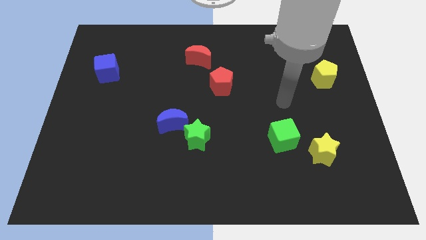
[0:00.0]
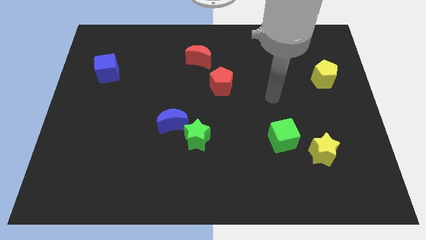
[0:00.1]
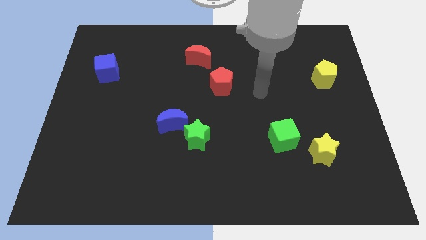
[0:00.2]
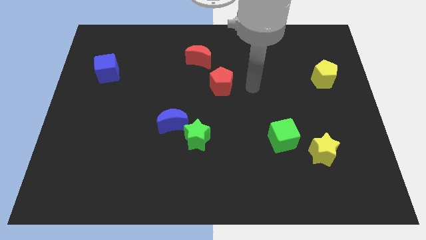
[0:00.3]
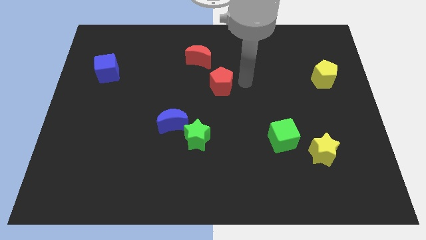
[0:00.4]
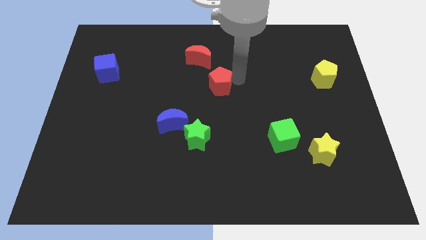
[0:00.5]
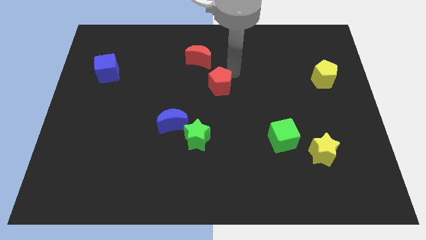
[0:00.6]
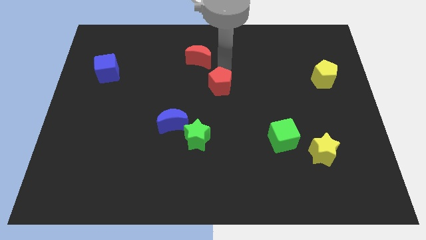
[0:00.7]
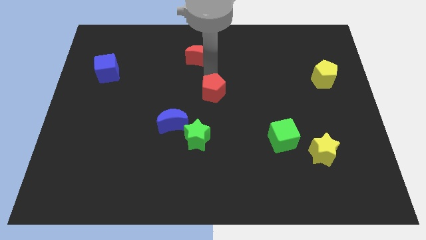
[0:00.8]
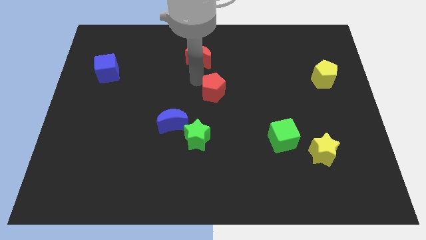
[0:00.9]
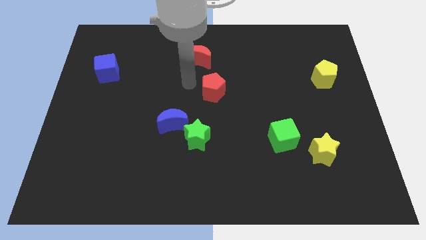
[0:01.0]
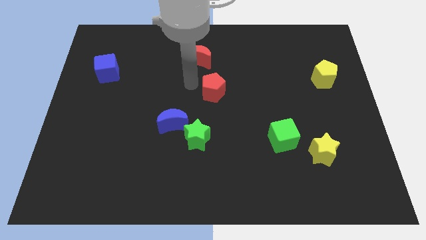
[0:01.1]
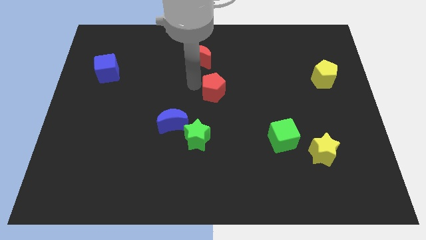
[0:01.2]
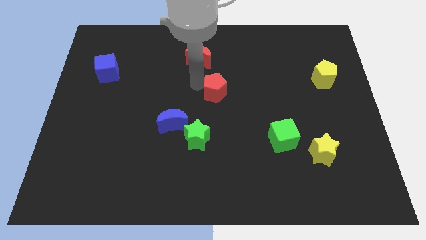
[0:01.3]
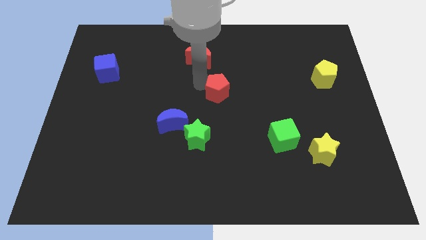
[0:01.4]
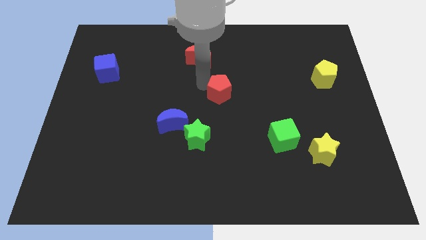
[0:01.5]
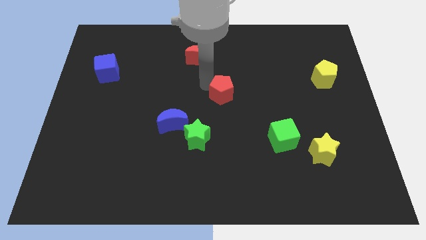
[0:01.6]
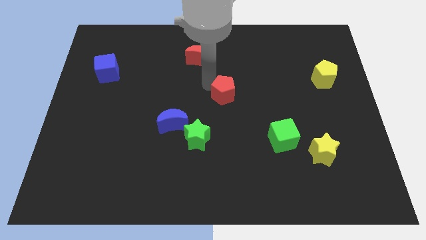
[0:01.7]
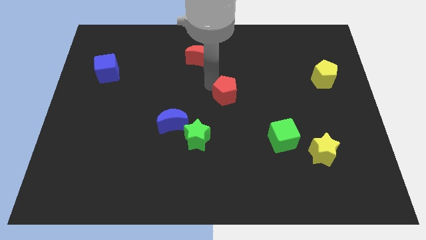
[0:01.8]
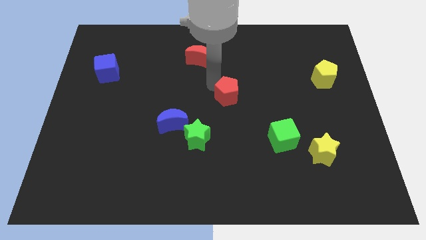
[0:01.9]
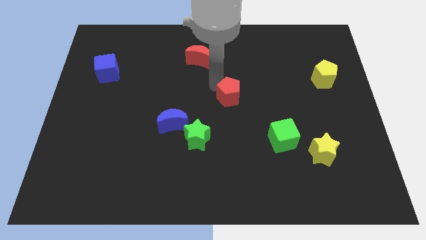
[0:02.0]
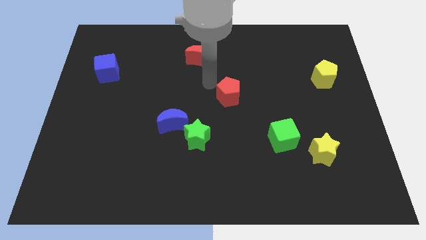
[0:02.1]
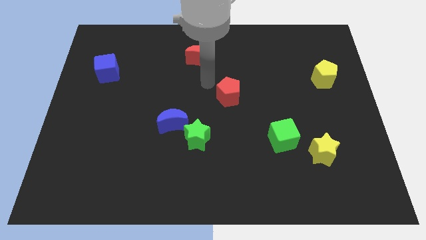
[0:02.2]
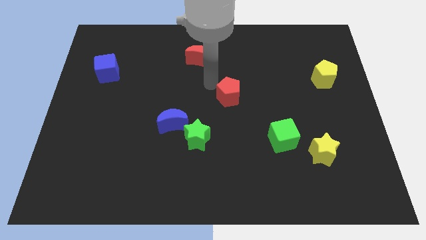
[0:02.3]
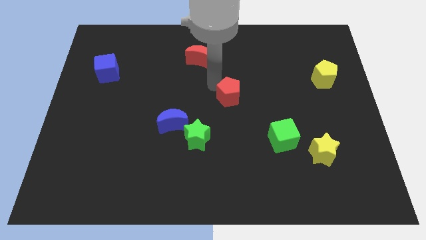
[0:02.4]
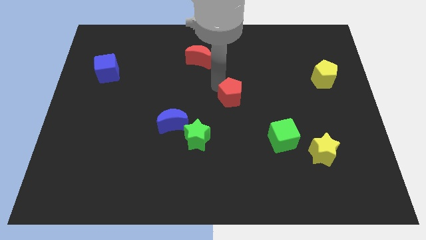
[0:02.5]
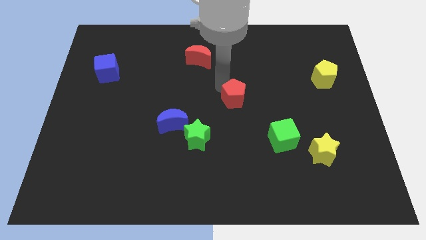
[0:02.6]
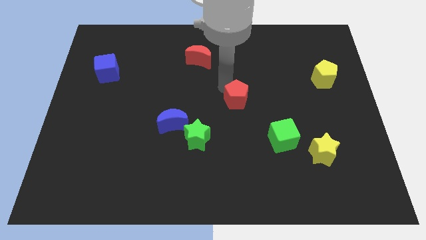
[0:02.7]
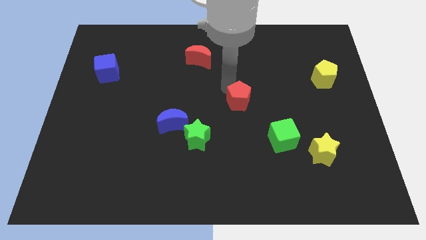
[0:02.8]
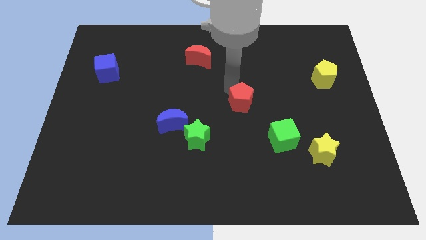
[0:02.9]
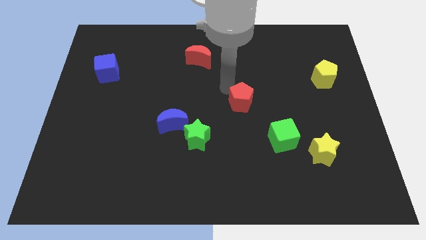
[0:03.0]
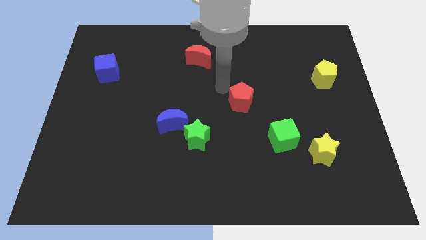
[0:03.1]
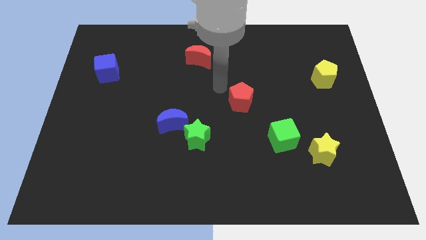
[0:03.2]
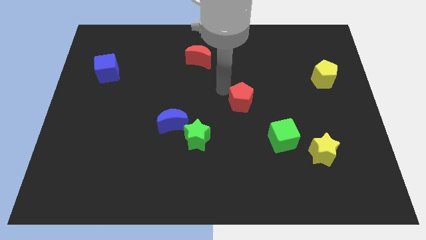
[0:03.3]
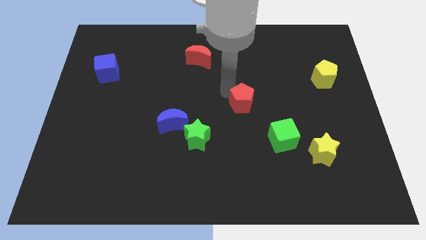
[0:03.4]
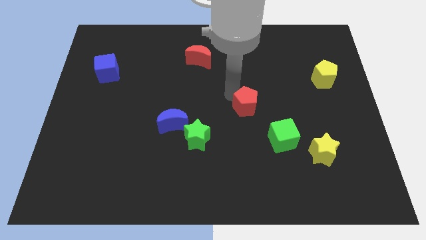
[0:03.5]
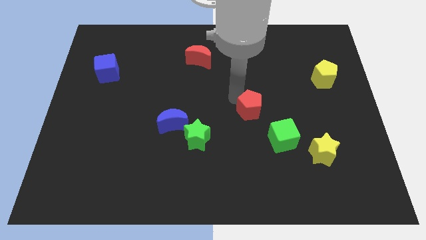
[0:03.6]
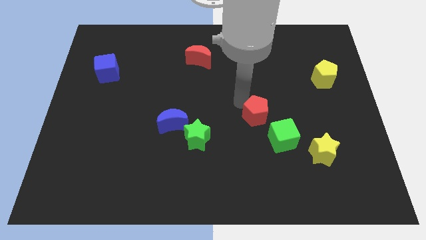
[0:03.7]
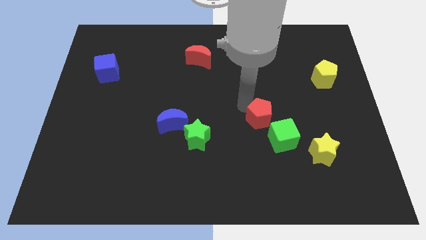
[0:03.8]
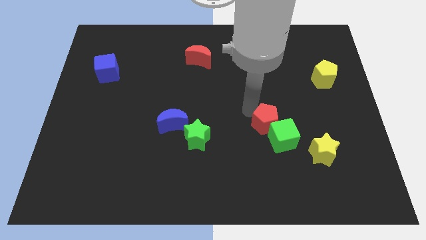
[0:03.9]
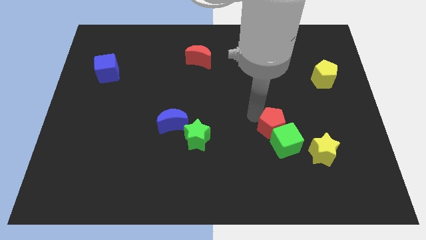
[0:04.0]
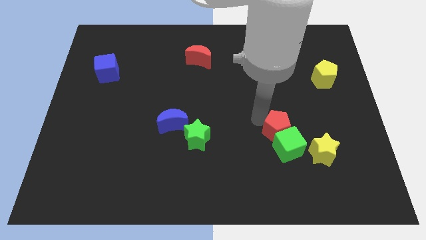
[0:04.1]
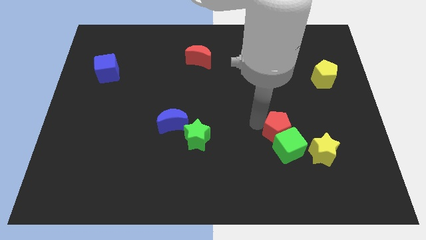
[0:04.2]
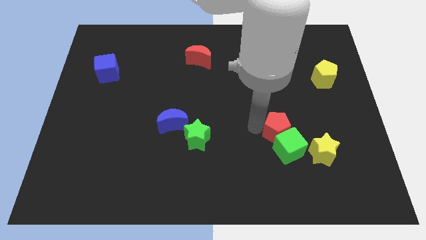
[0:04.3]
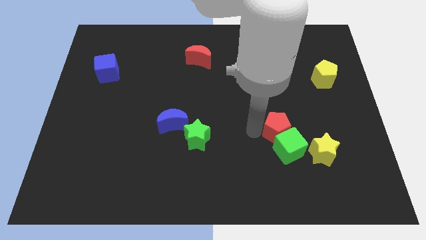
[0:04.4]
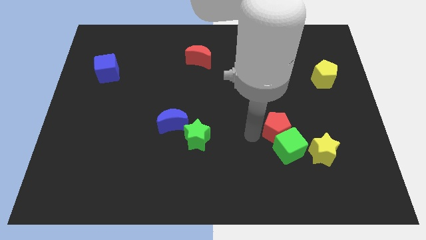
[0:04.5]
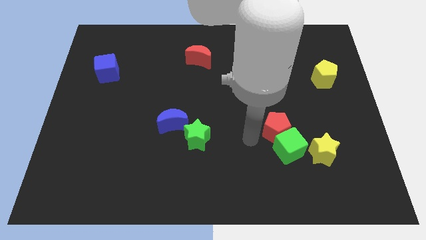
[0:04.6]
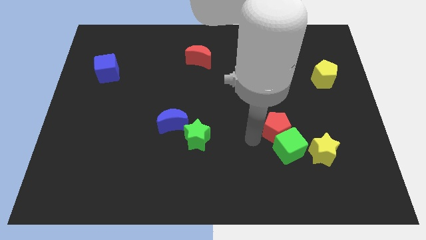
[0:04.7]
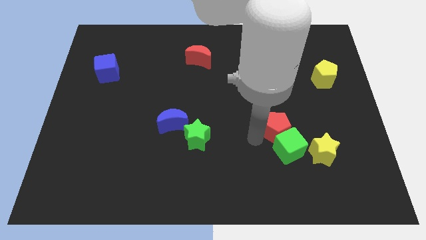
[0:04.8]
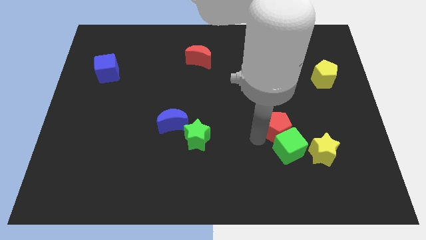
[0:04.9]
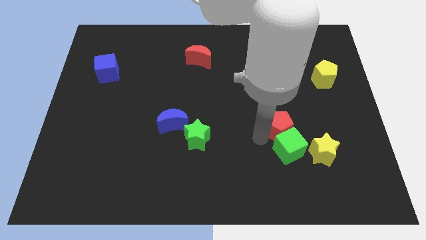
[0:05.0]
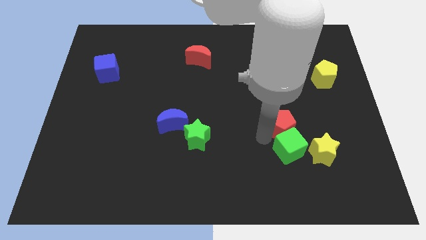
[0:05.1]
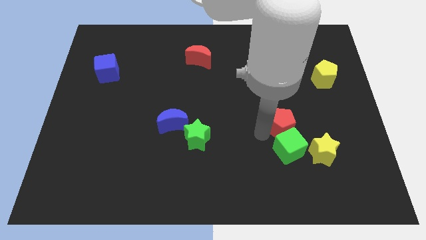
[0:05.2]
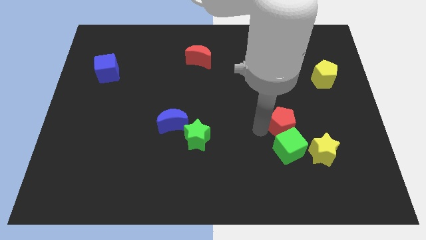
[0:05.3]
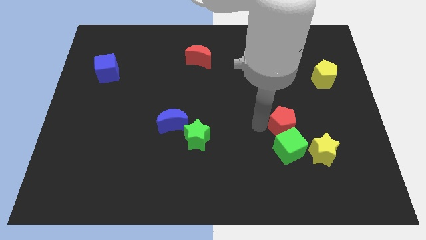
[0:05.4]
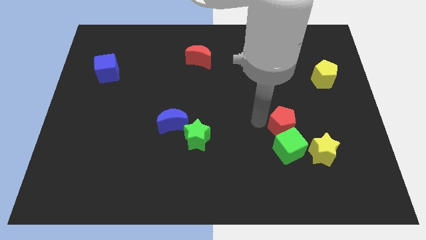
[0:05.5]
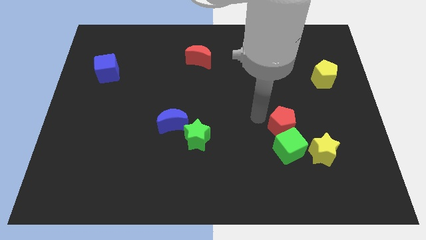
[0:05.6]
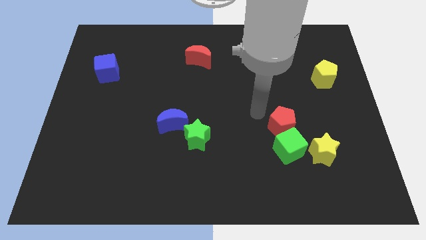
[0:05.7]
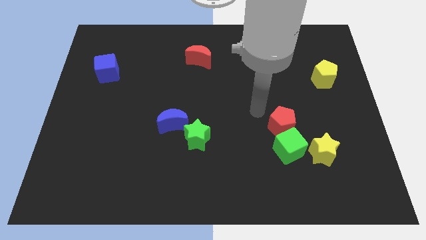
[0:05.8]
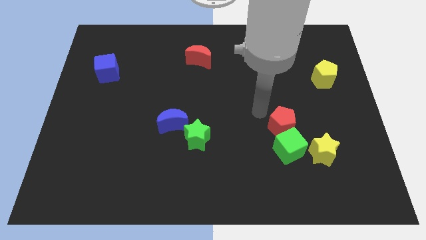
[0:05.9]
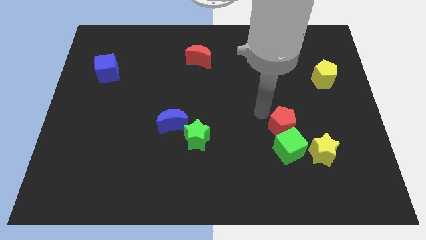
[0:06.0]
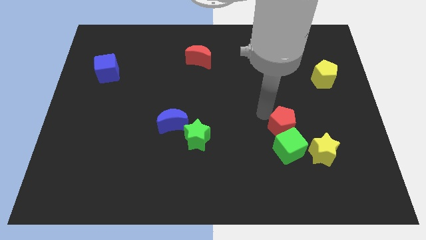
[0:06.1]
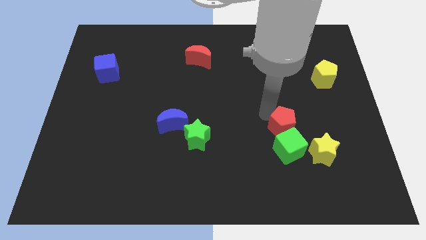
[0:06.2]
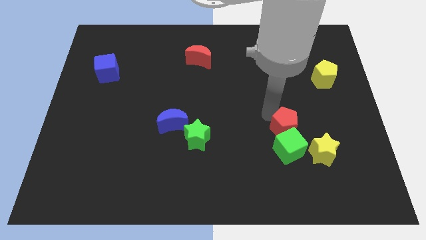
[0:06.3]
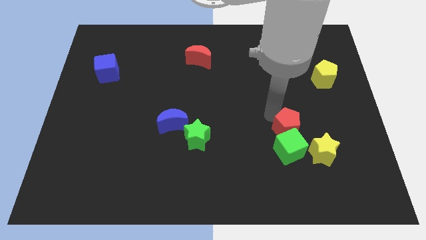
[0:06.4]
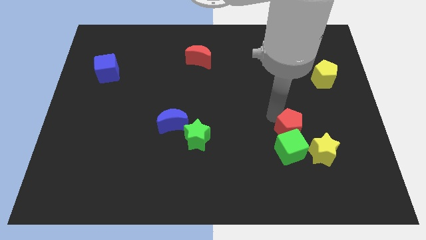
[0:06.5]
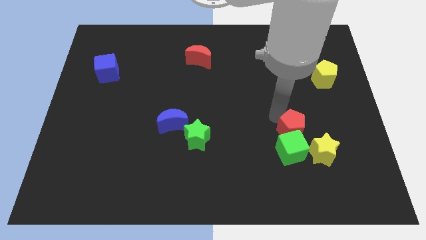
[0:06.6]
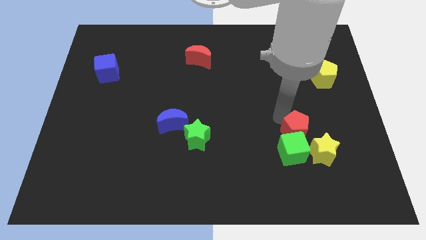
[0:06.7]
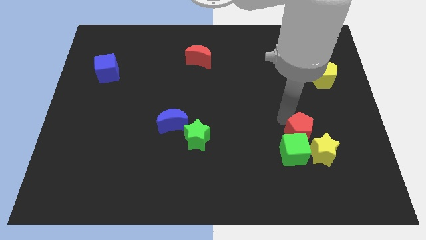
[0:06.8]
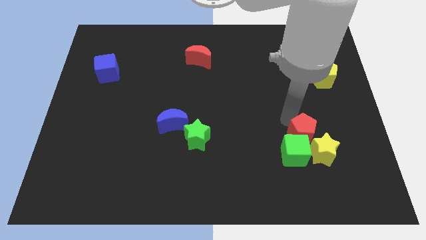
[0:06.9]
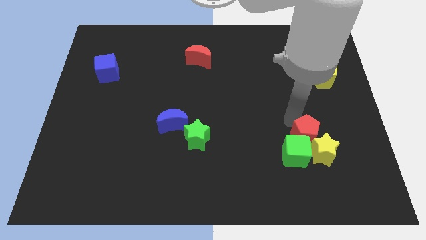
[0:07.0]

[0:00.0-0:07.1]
push the red pentagon close to the yellow star
